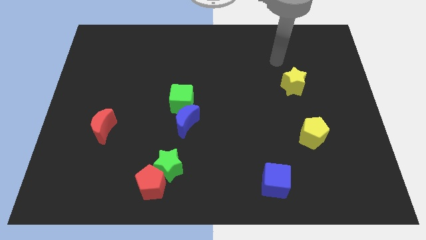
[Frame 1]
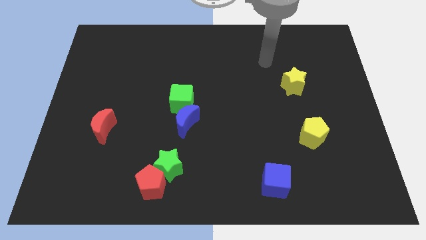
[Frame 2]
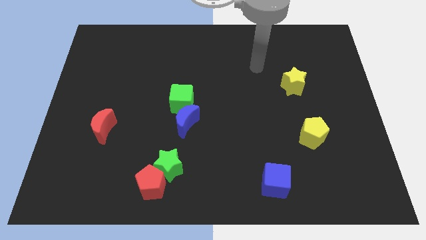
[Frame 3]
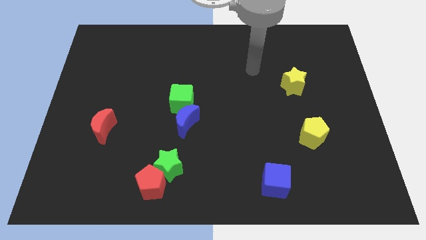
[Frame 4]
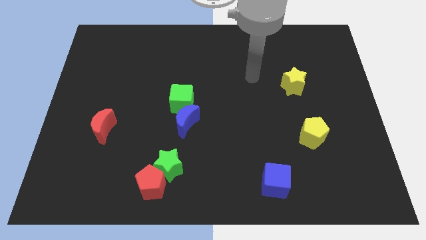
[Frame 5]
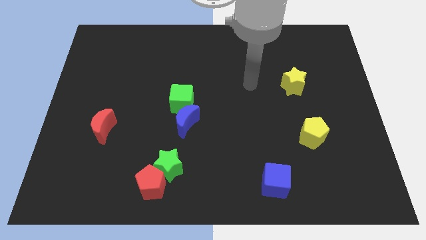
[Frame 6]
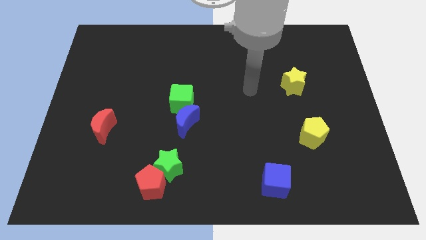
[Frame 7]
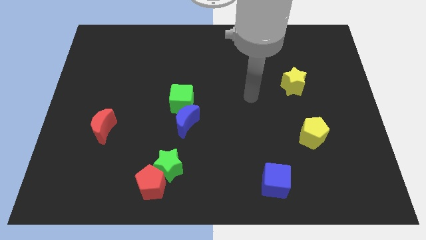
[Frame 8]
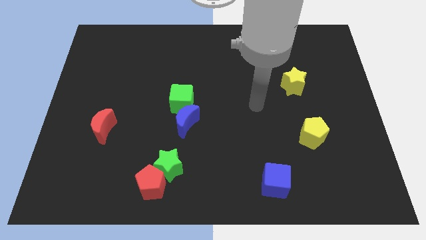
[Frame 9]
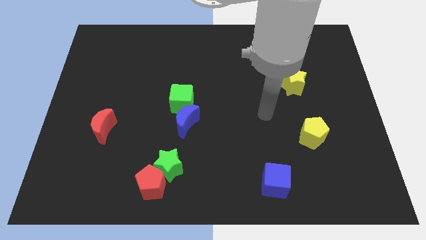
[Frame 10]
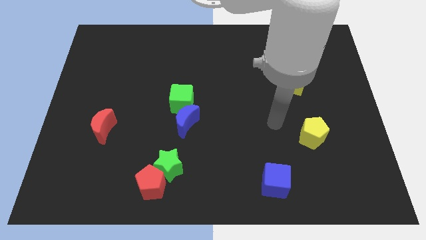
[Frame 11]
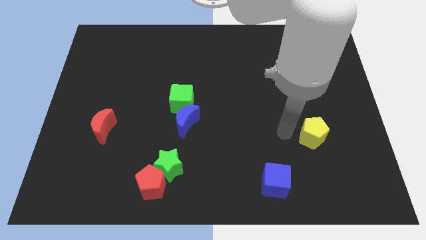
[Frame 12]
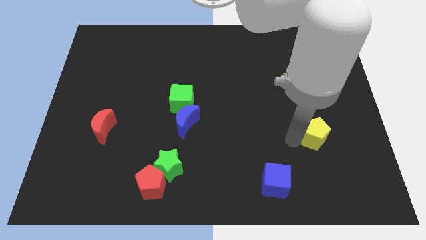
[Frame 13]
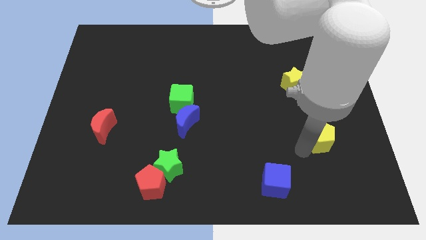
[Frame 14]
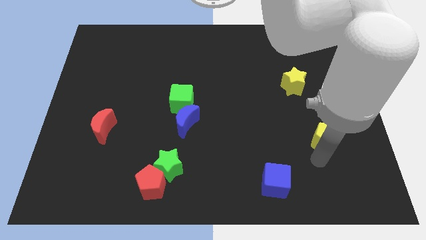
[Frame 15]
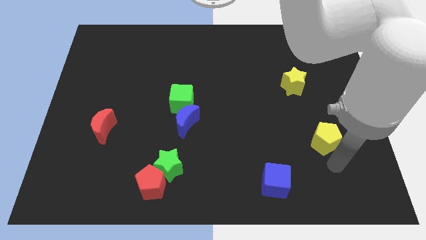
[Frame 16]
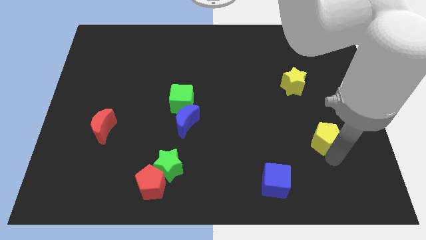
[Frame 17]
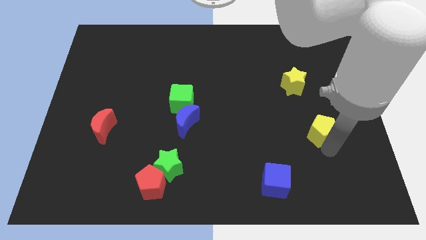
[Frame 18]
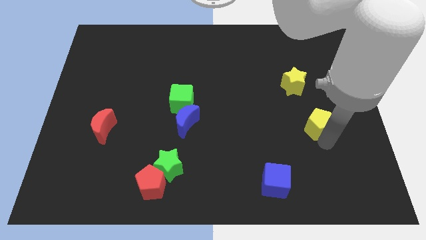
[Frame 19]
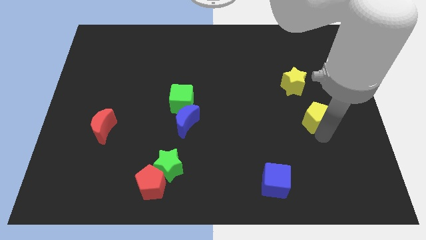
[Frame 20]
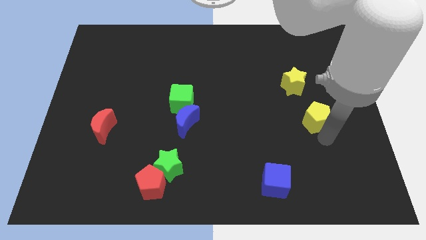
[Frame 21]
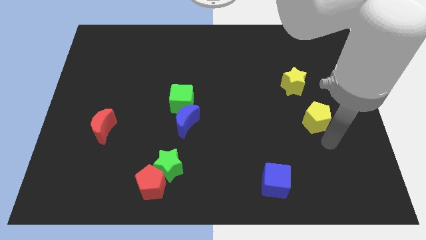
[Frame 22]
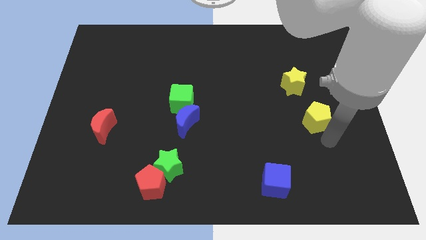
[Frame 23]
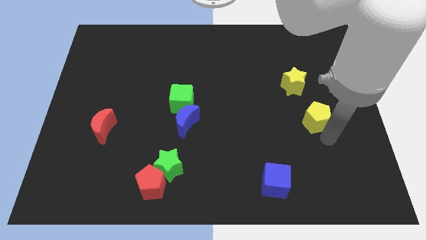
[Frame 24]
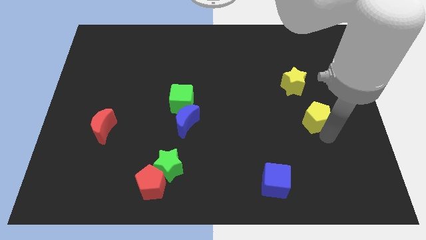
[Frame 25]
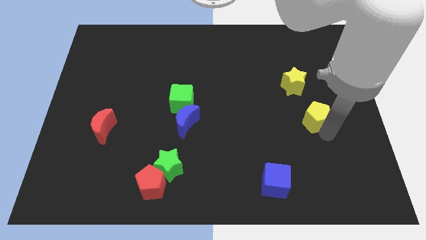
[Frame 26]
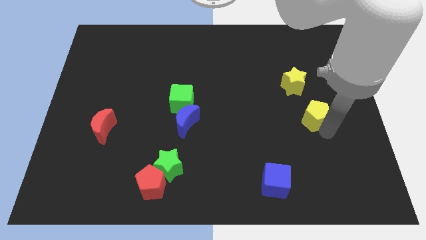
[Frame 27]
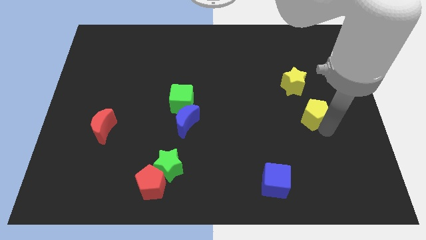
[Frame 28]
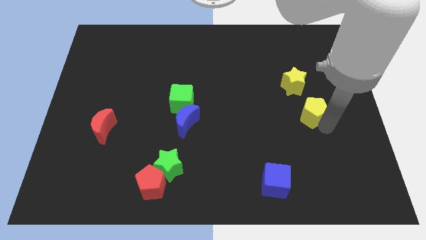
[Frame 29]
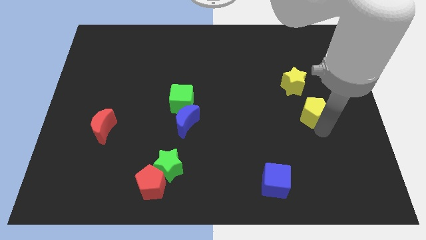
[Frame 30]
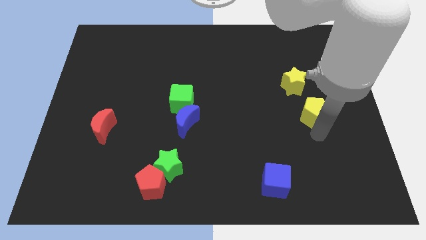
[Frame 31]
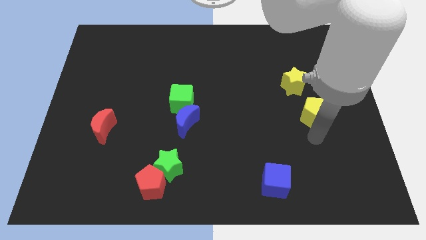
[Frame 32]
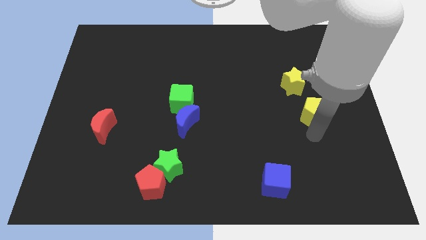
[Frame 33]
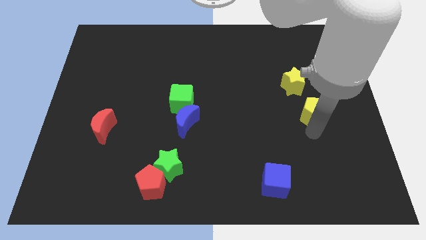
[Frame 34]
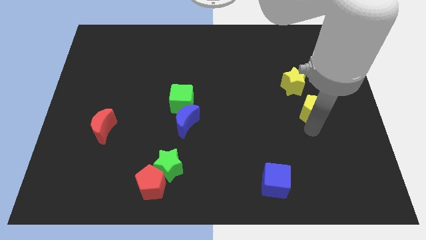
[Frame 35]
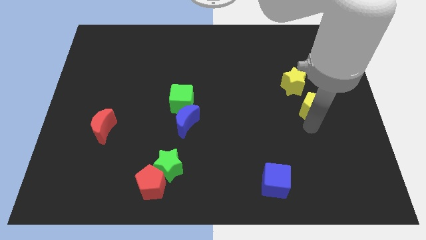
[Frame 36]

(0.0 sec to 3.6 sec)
slide the yellow pentagon upwards somewhat

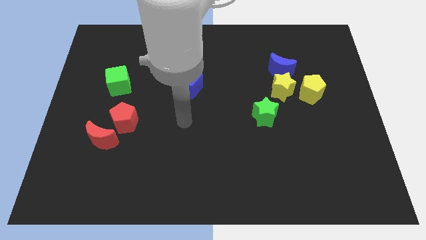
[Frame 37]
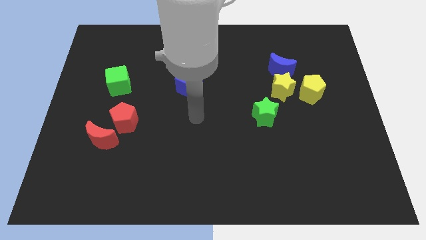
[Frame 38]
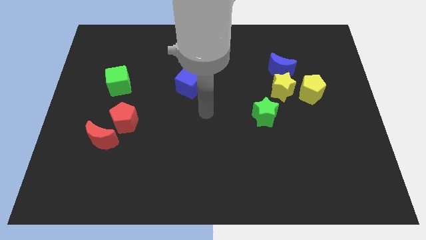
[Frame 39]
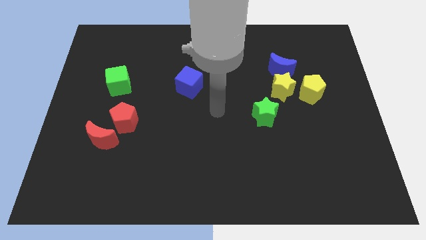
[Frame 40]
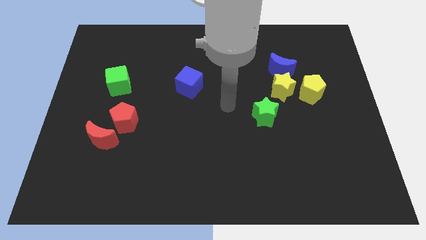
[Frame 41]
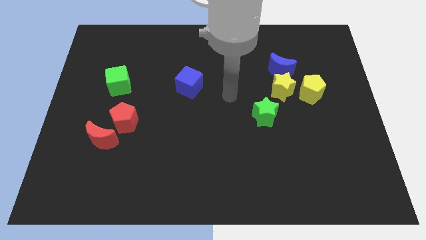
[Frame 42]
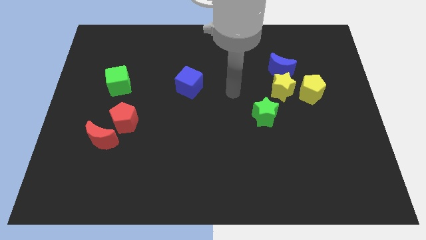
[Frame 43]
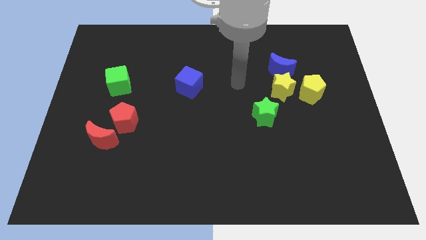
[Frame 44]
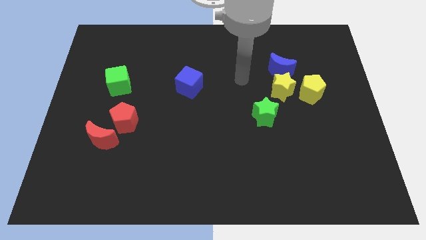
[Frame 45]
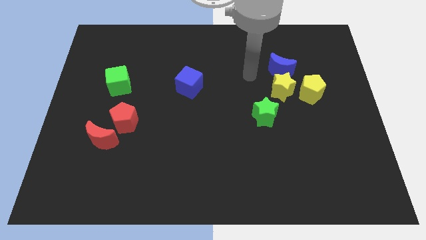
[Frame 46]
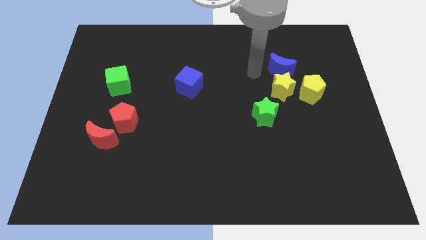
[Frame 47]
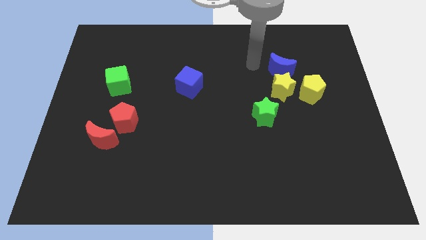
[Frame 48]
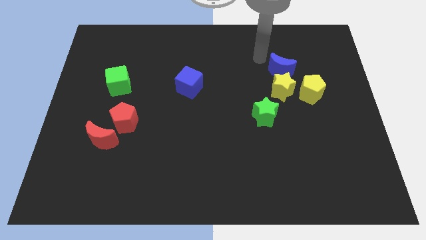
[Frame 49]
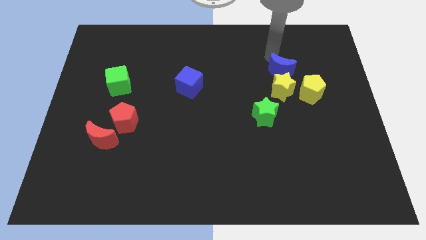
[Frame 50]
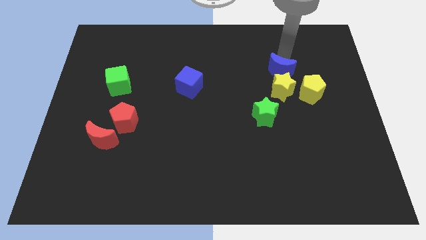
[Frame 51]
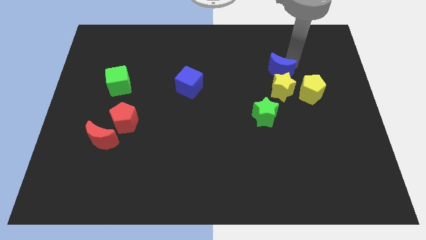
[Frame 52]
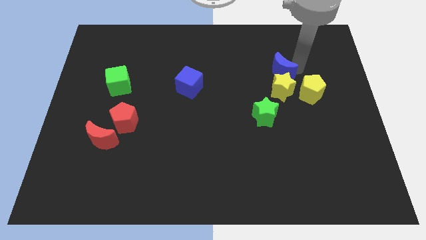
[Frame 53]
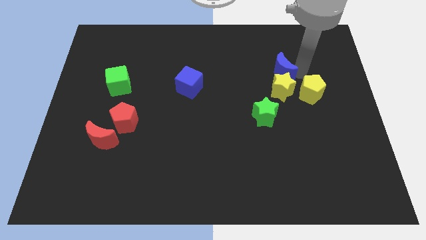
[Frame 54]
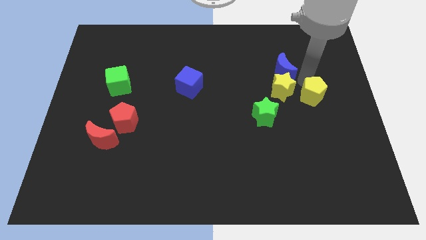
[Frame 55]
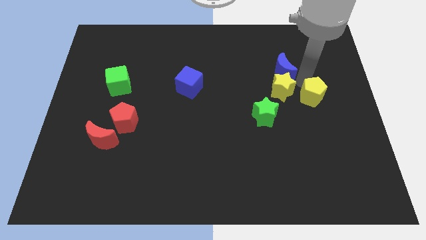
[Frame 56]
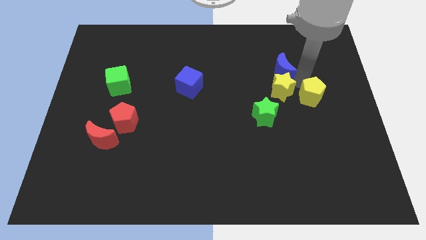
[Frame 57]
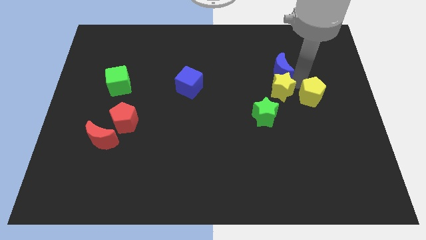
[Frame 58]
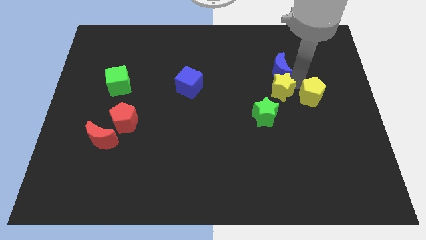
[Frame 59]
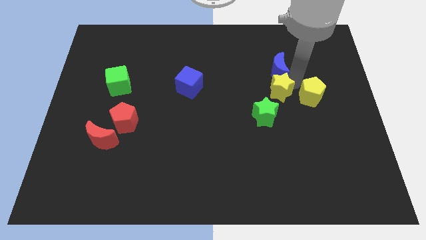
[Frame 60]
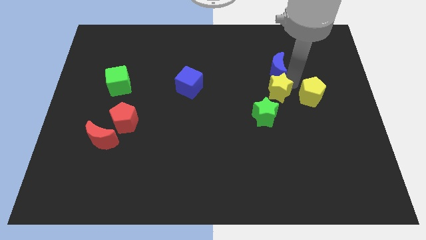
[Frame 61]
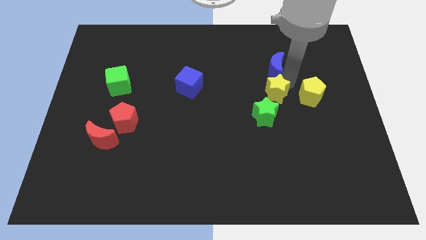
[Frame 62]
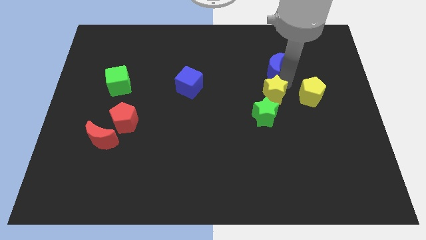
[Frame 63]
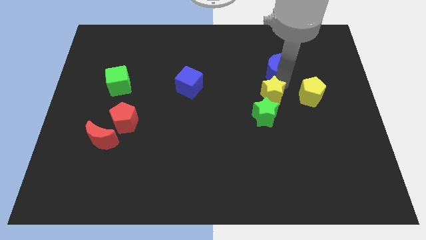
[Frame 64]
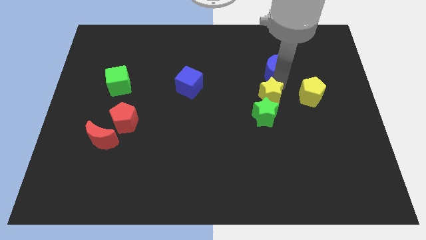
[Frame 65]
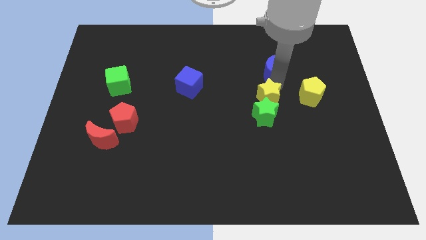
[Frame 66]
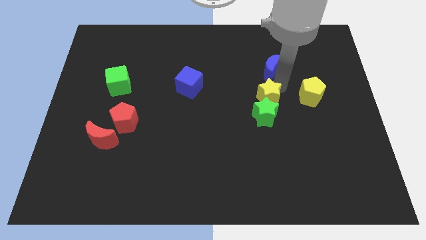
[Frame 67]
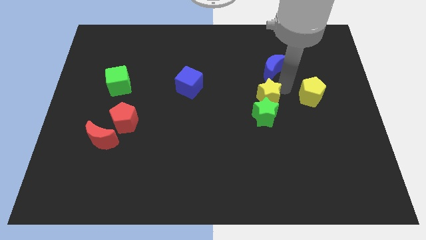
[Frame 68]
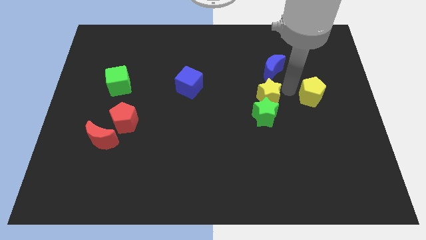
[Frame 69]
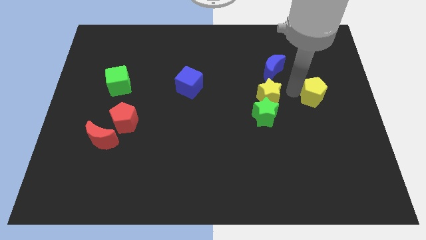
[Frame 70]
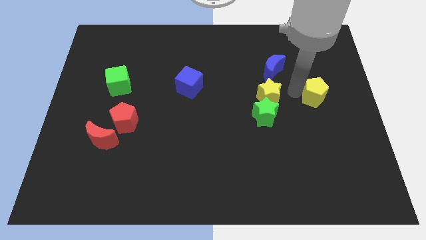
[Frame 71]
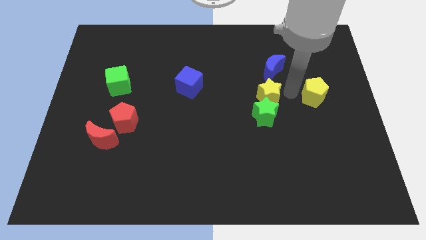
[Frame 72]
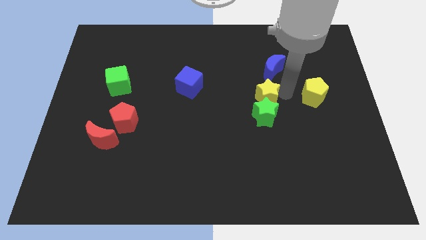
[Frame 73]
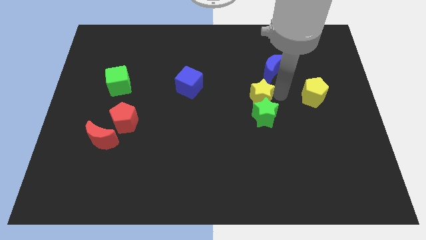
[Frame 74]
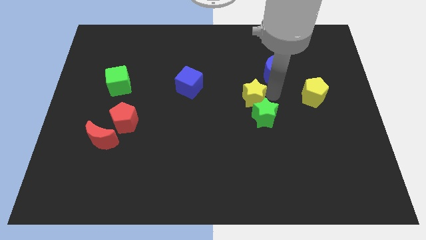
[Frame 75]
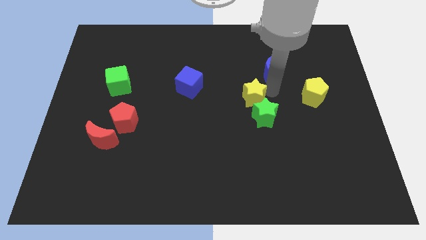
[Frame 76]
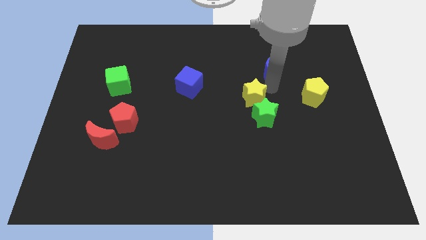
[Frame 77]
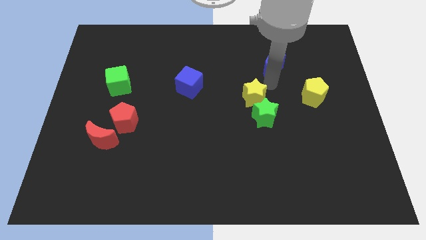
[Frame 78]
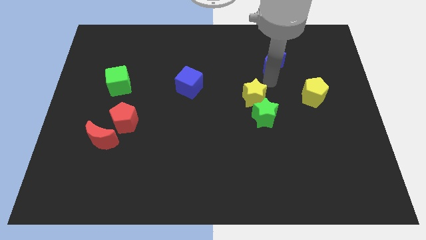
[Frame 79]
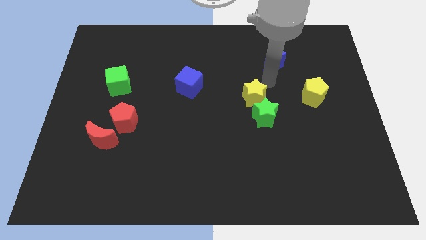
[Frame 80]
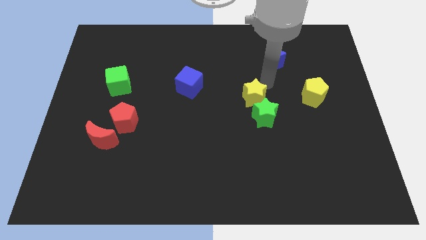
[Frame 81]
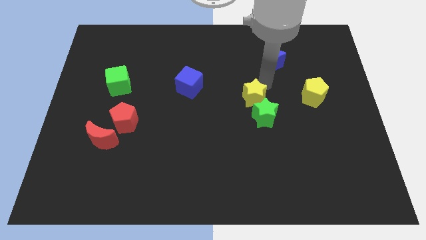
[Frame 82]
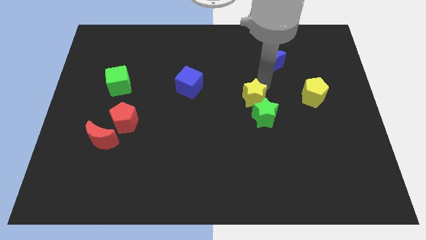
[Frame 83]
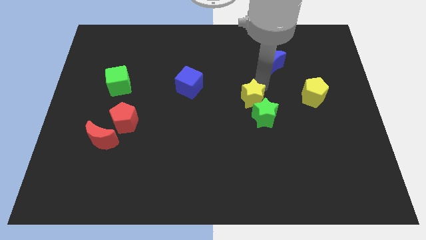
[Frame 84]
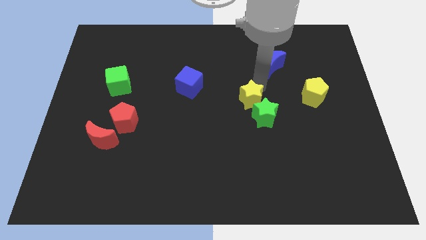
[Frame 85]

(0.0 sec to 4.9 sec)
slightly slide the yellow star down and to the left
